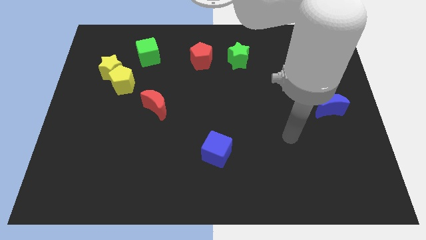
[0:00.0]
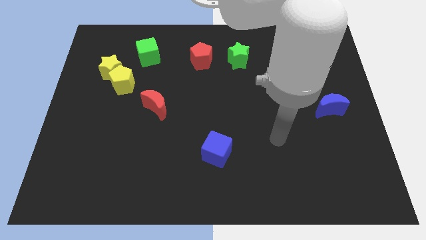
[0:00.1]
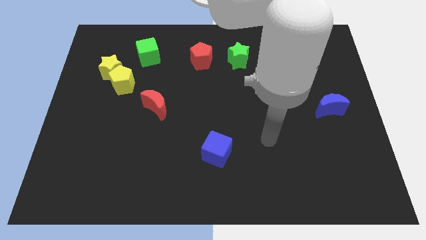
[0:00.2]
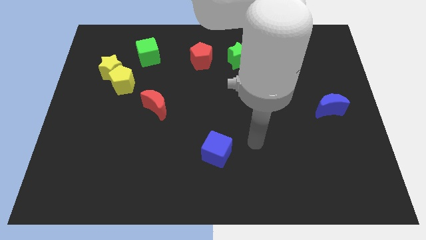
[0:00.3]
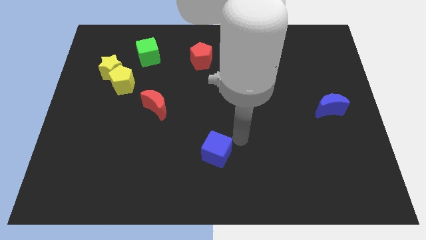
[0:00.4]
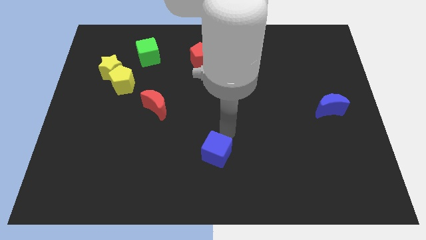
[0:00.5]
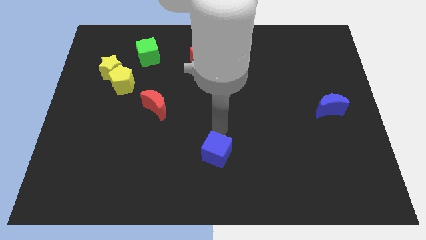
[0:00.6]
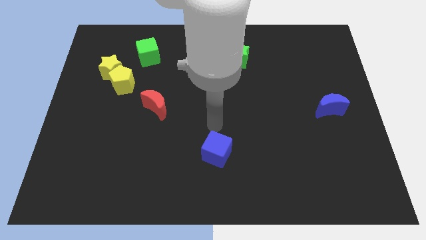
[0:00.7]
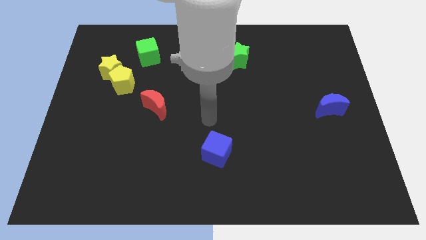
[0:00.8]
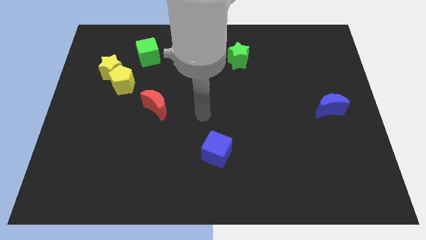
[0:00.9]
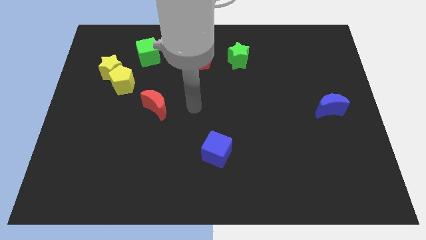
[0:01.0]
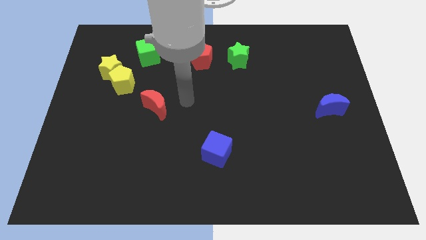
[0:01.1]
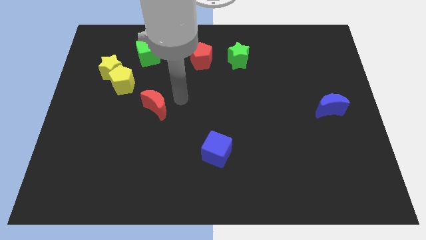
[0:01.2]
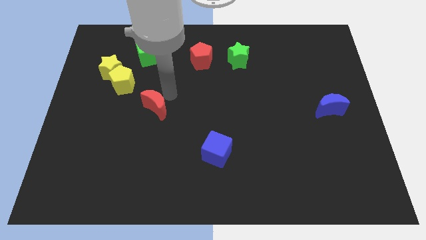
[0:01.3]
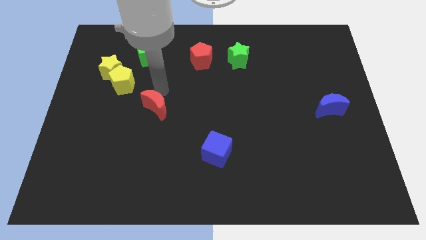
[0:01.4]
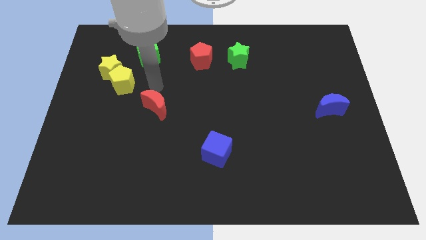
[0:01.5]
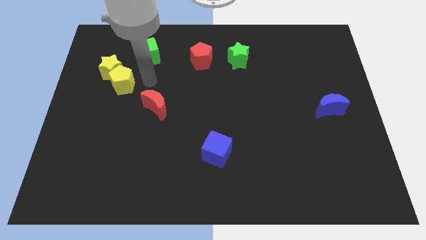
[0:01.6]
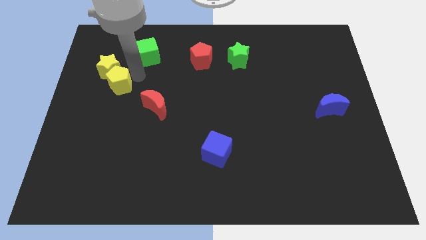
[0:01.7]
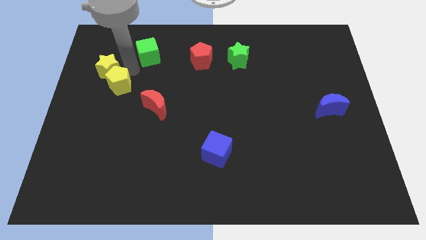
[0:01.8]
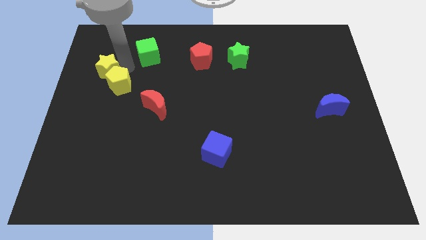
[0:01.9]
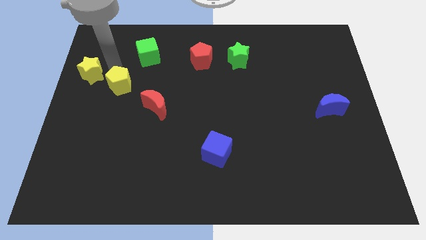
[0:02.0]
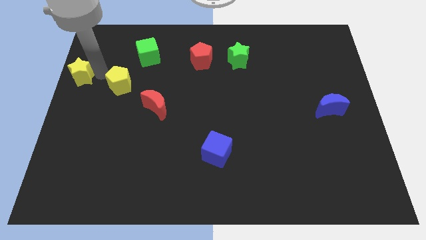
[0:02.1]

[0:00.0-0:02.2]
pull the yellow pentagon apart from the yellow star

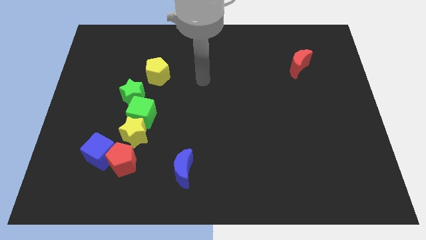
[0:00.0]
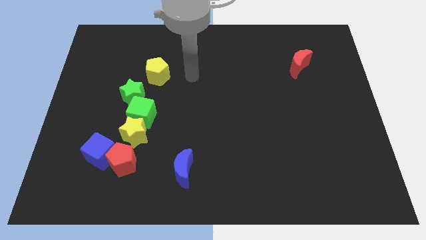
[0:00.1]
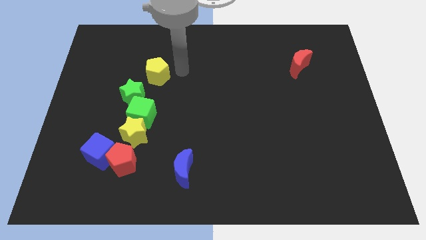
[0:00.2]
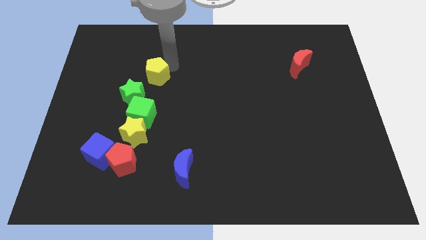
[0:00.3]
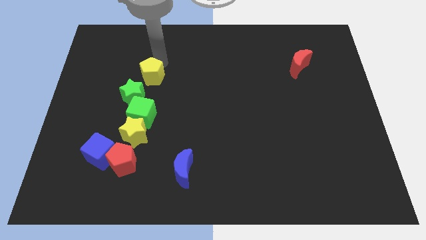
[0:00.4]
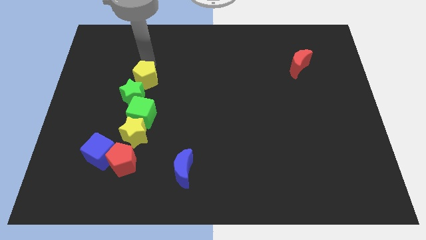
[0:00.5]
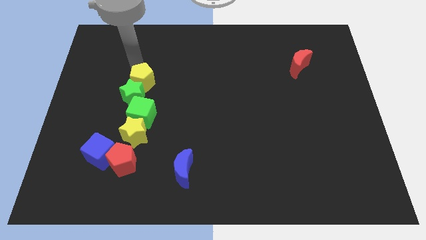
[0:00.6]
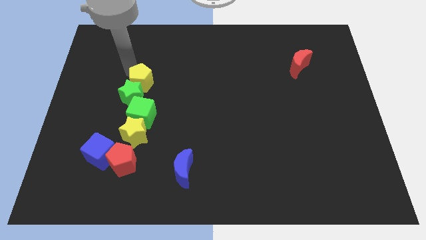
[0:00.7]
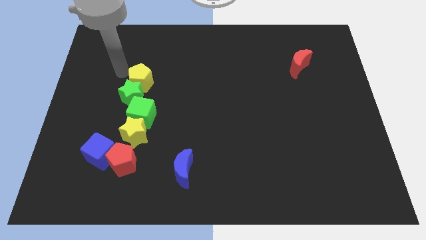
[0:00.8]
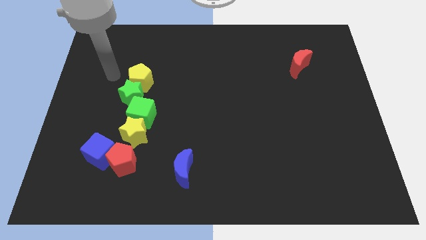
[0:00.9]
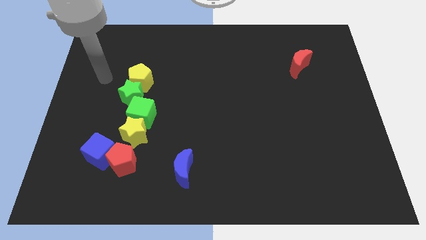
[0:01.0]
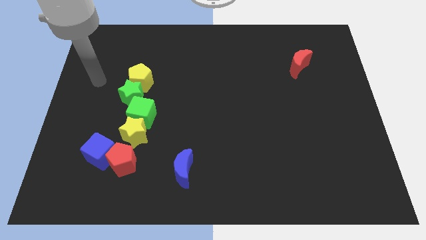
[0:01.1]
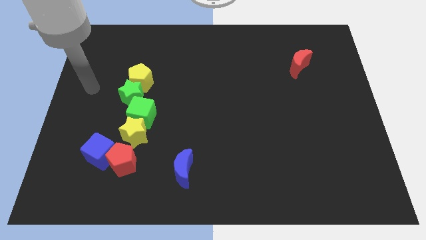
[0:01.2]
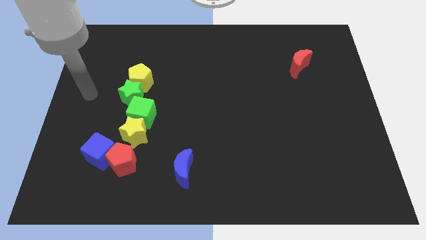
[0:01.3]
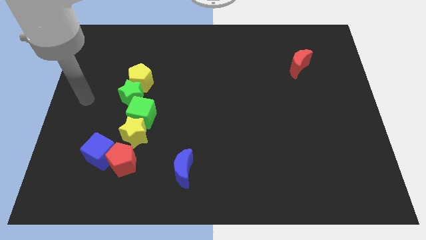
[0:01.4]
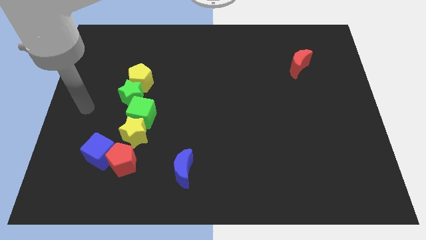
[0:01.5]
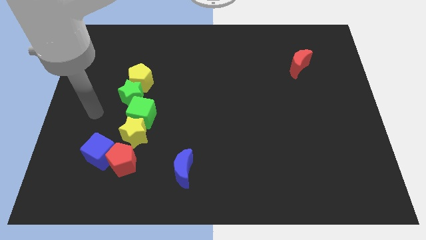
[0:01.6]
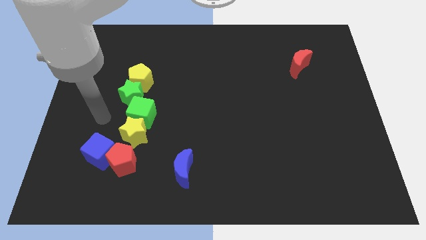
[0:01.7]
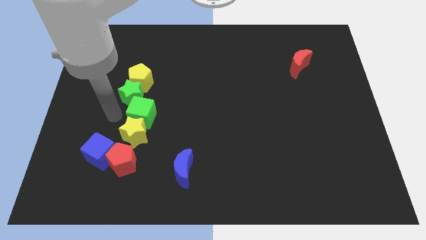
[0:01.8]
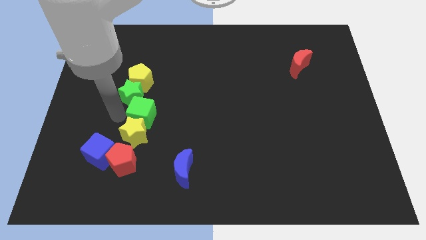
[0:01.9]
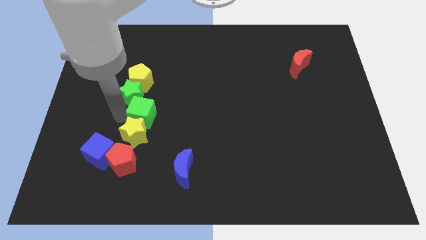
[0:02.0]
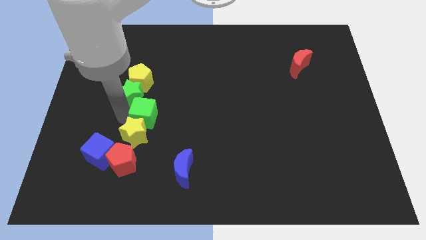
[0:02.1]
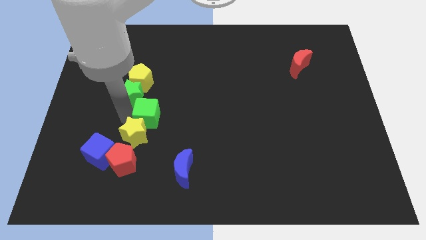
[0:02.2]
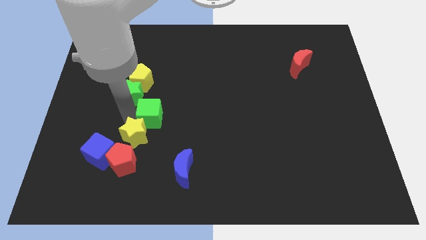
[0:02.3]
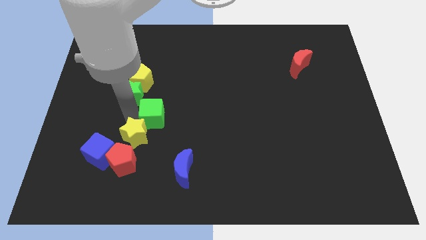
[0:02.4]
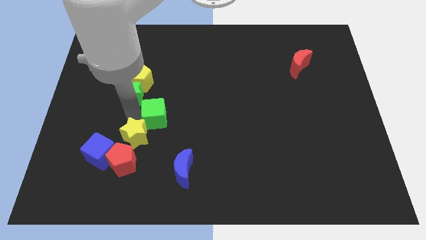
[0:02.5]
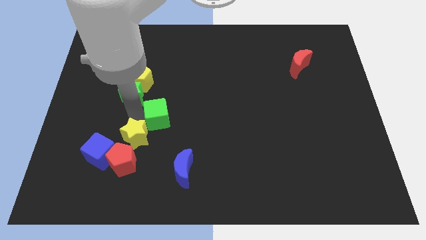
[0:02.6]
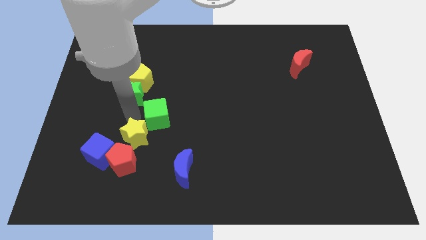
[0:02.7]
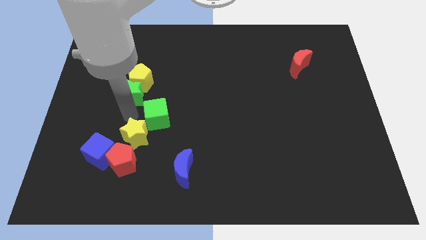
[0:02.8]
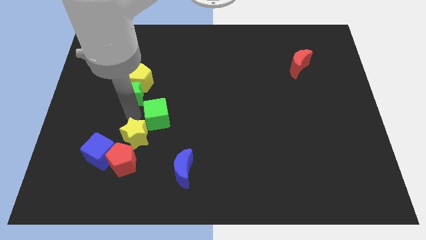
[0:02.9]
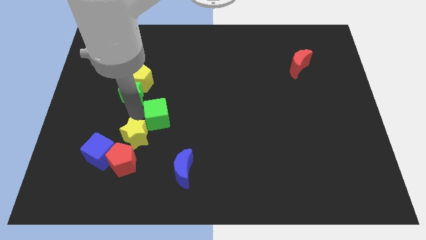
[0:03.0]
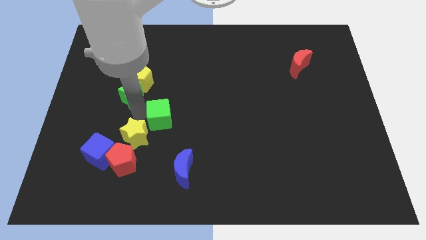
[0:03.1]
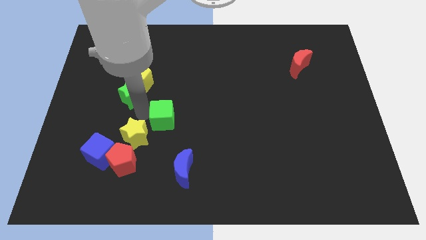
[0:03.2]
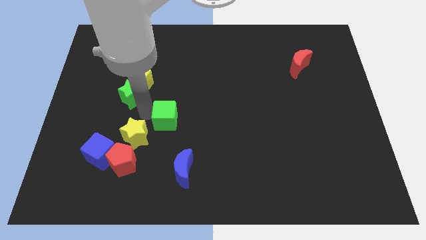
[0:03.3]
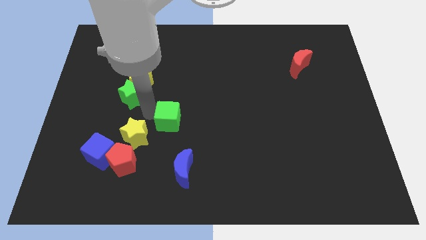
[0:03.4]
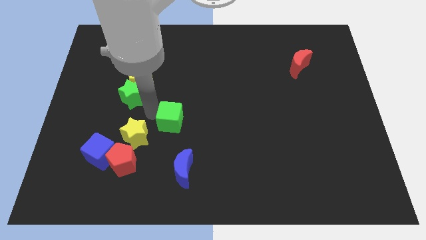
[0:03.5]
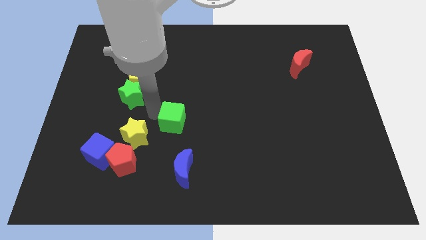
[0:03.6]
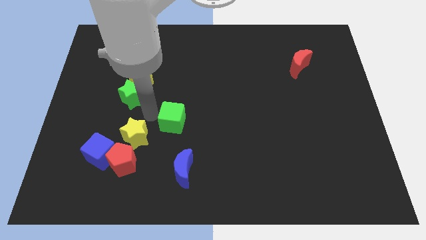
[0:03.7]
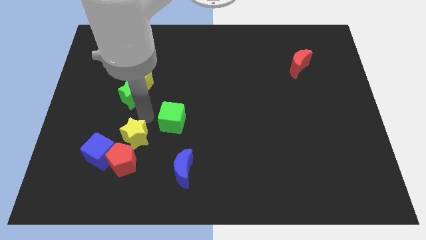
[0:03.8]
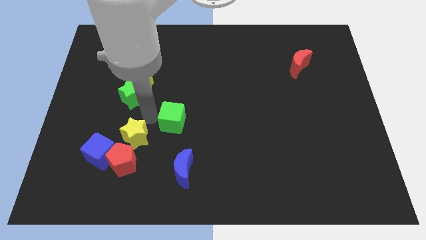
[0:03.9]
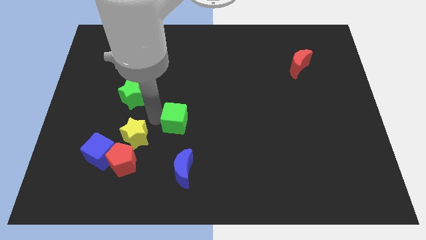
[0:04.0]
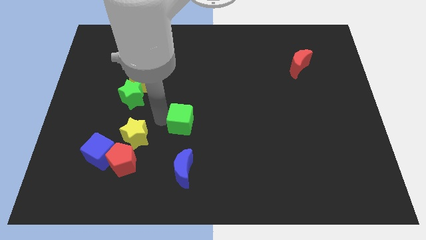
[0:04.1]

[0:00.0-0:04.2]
move the green cube away from the yellow star and green star

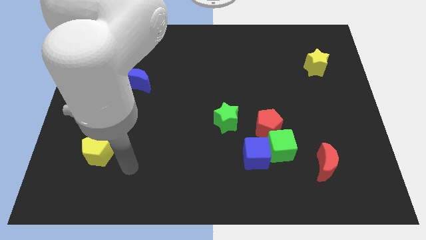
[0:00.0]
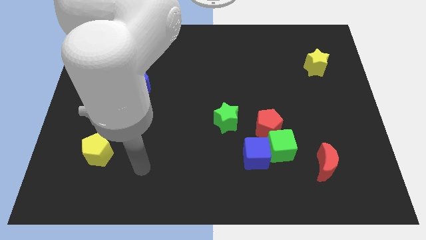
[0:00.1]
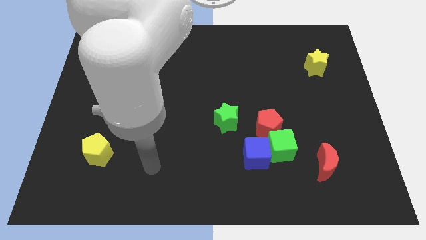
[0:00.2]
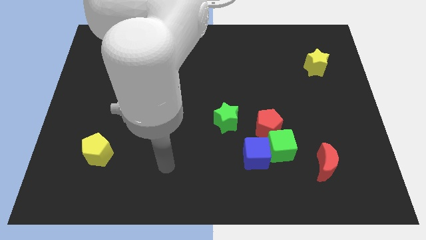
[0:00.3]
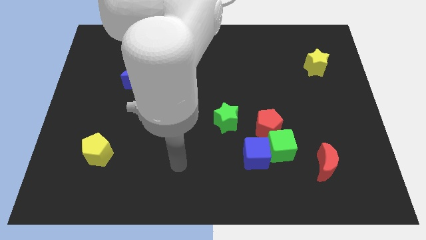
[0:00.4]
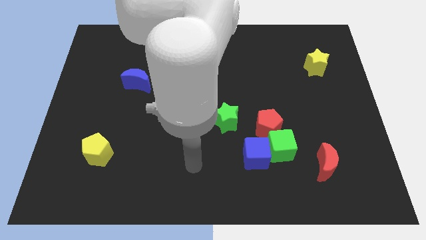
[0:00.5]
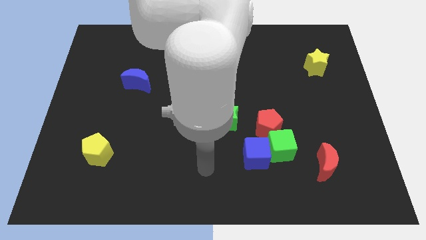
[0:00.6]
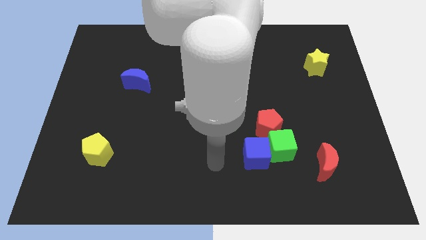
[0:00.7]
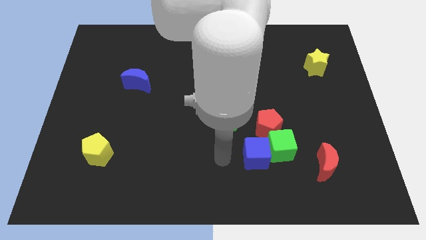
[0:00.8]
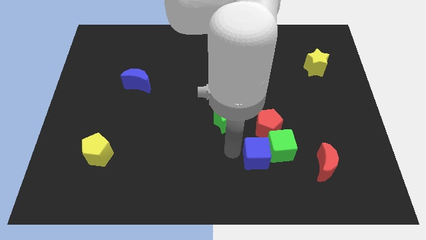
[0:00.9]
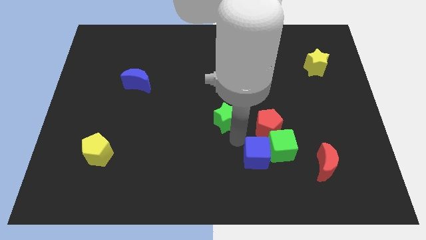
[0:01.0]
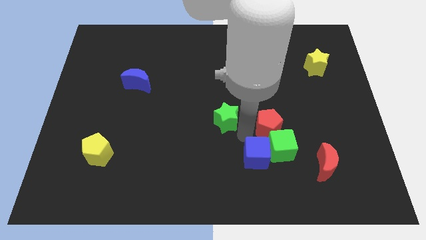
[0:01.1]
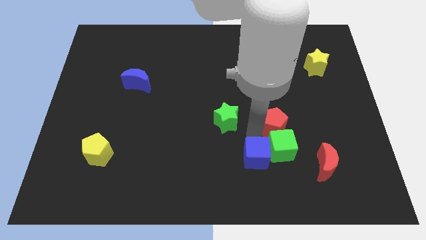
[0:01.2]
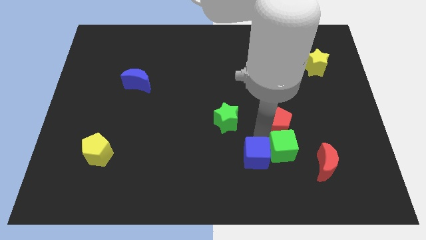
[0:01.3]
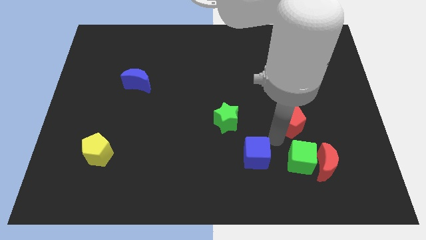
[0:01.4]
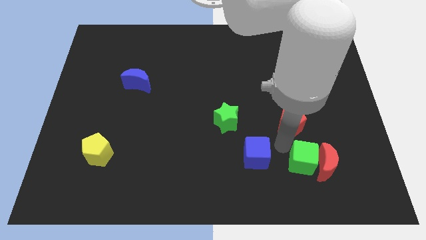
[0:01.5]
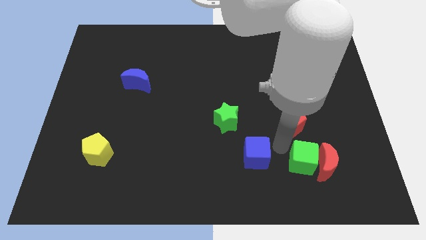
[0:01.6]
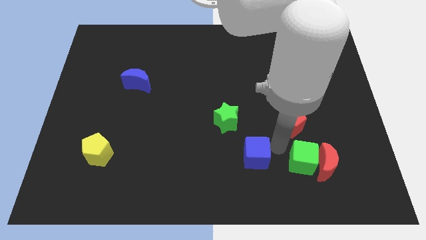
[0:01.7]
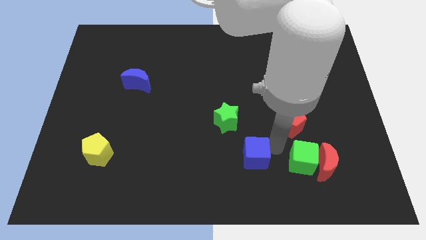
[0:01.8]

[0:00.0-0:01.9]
pull the blue cube apart from the green cube and red pentagon

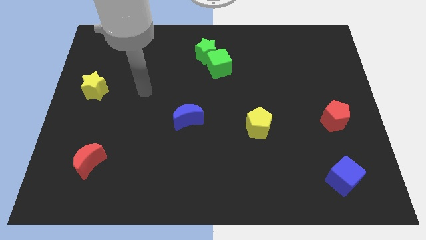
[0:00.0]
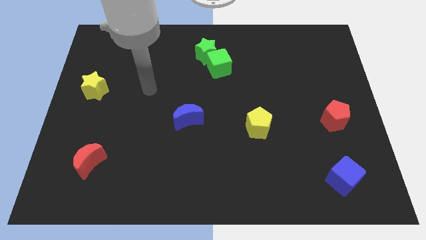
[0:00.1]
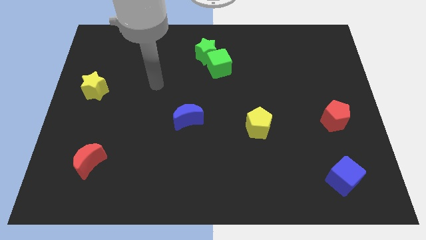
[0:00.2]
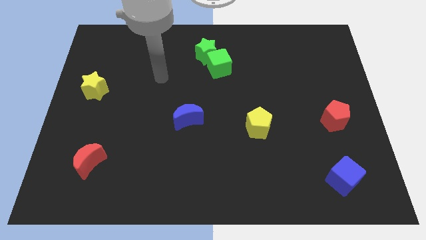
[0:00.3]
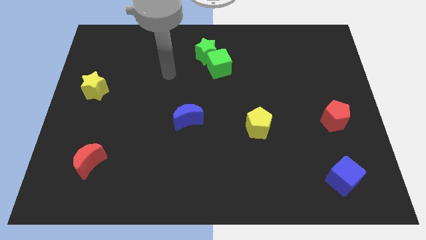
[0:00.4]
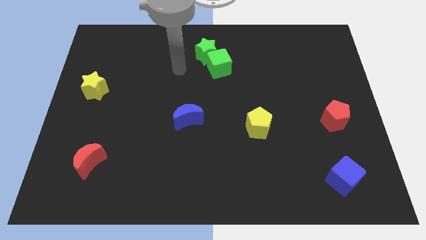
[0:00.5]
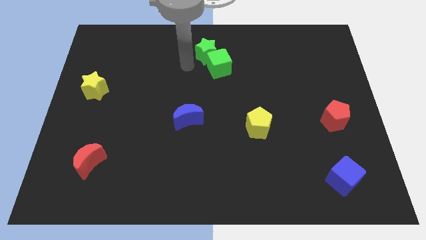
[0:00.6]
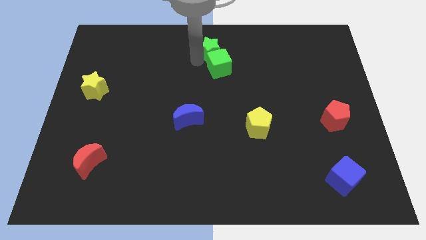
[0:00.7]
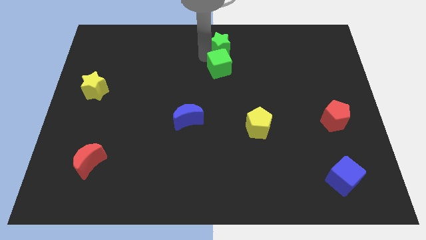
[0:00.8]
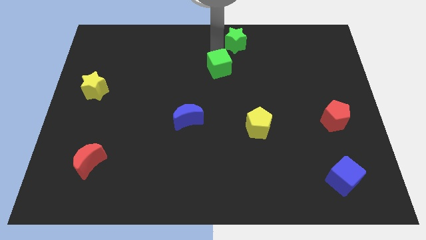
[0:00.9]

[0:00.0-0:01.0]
separate the green cube from the green star

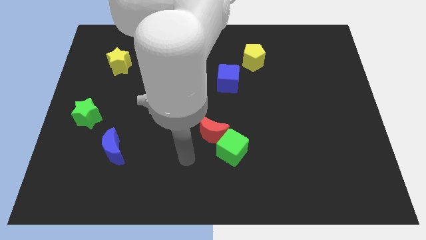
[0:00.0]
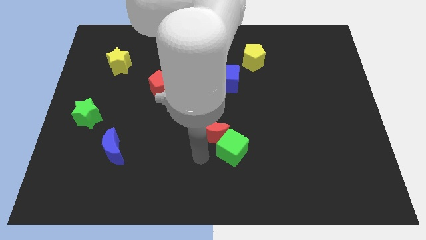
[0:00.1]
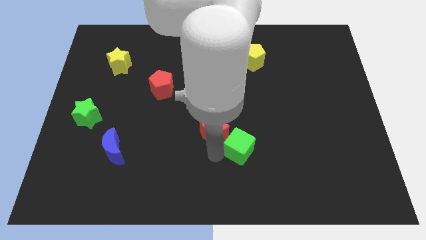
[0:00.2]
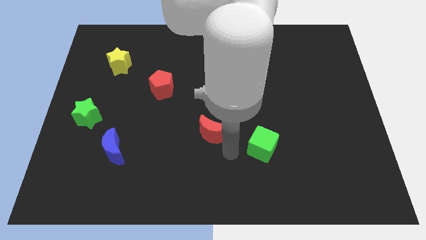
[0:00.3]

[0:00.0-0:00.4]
pull the red moon apart from the green cube
